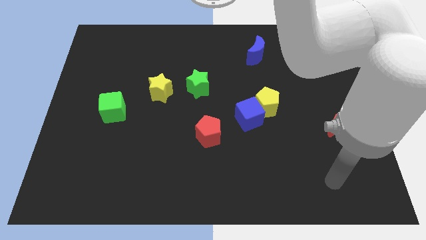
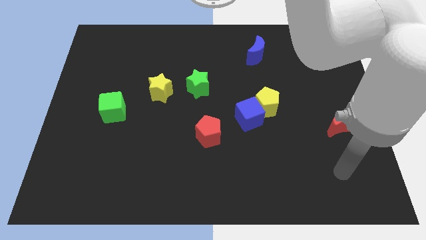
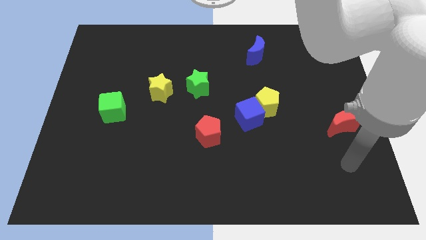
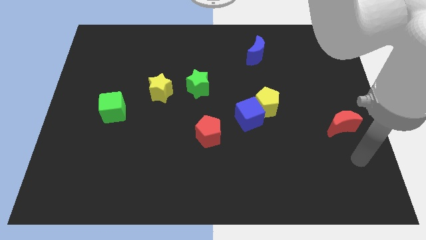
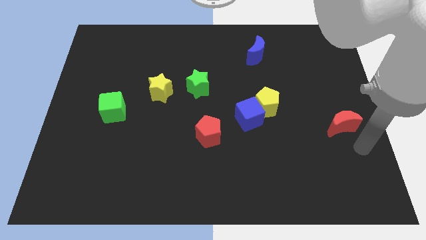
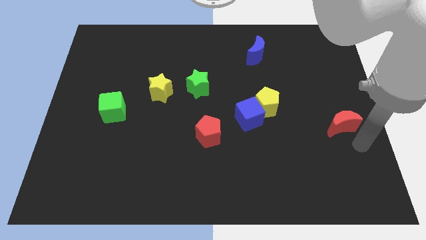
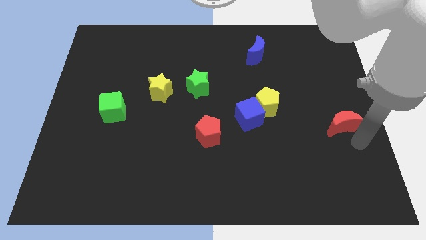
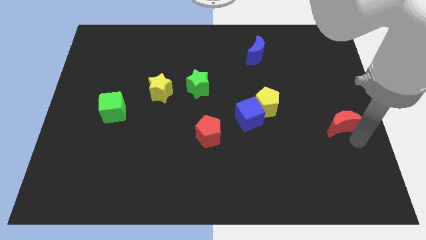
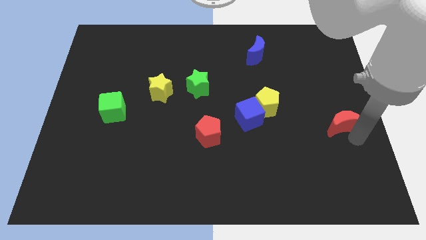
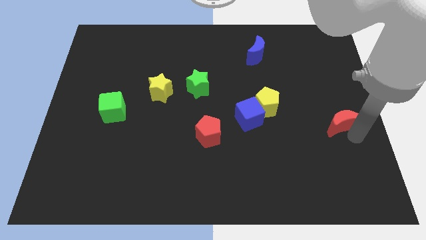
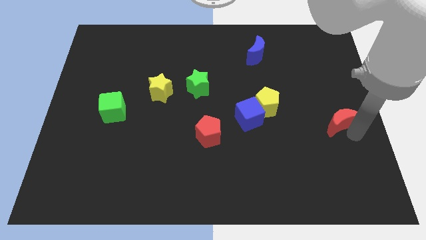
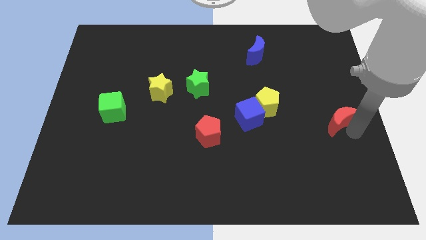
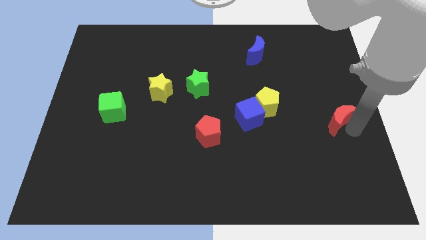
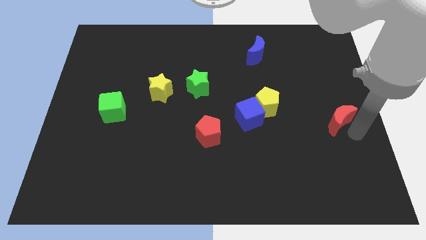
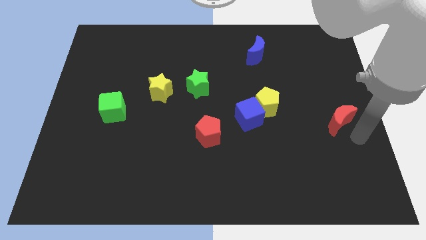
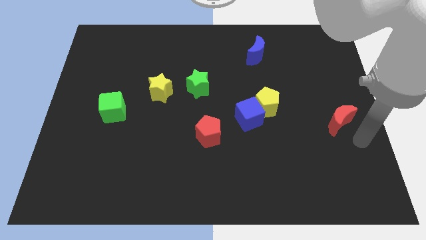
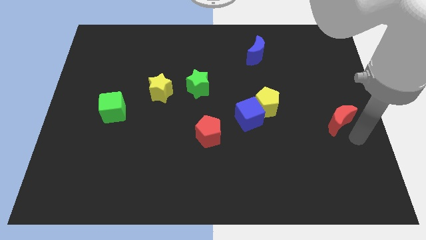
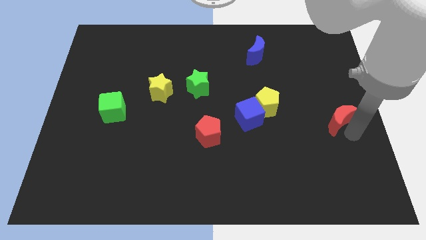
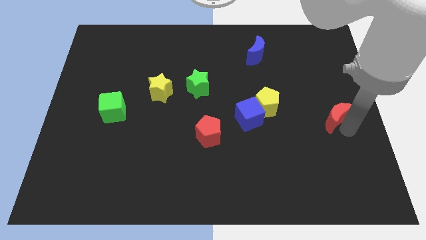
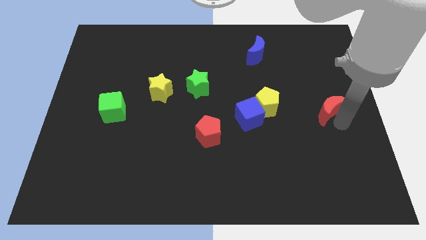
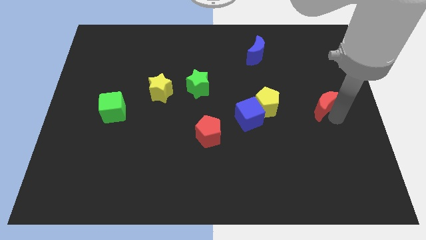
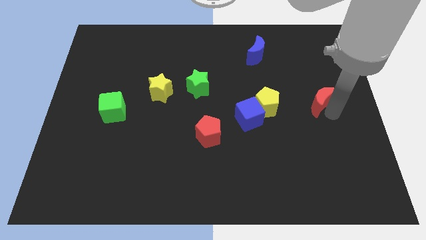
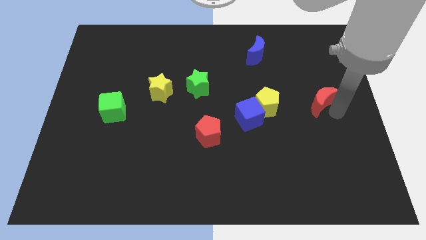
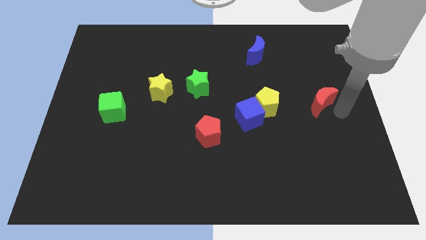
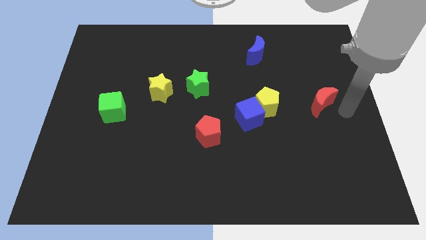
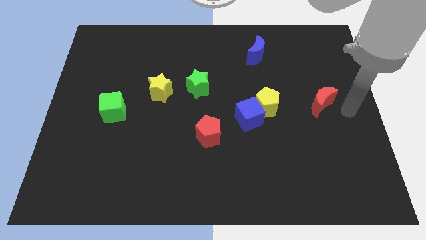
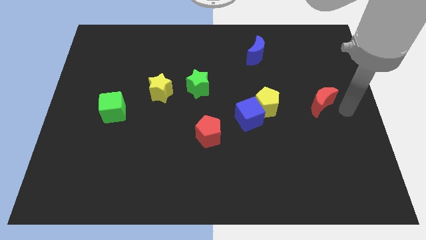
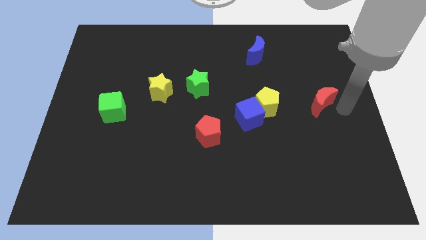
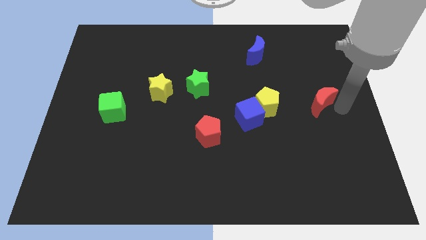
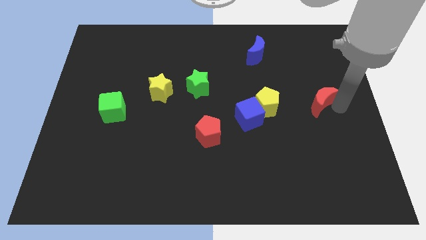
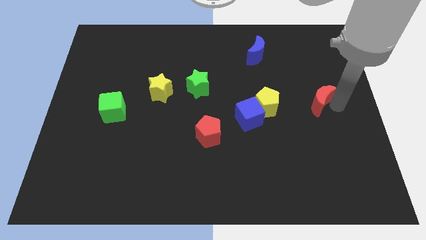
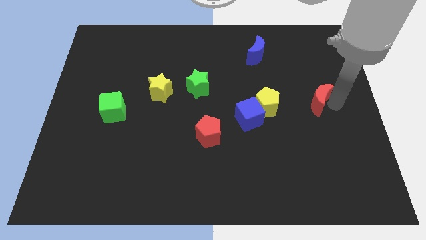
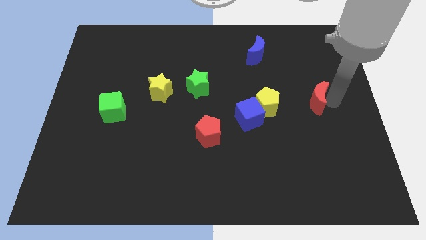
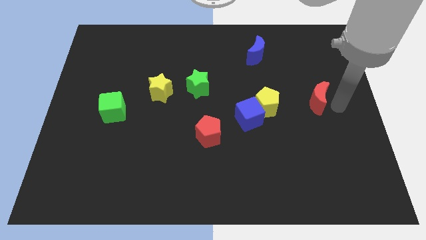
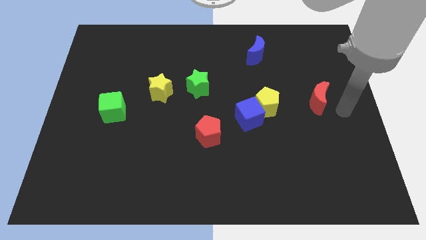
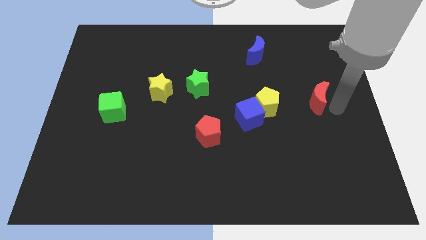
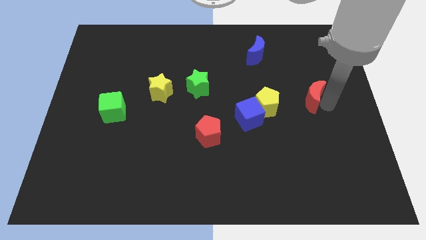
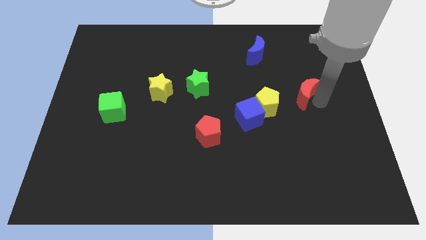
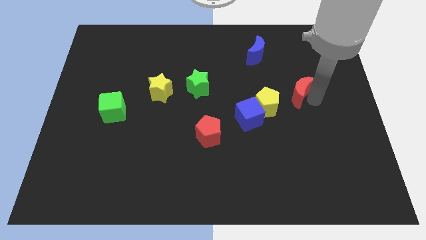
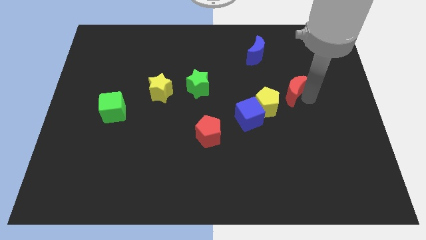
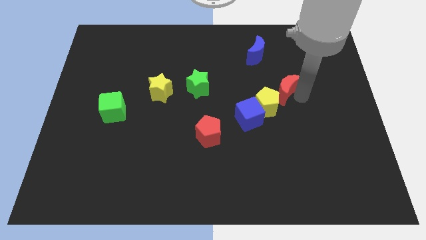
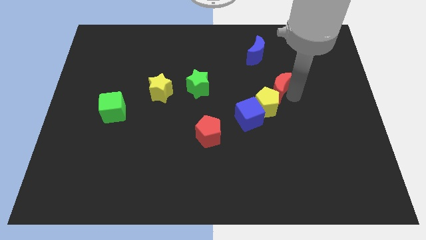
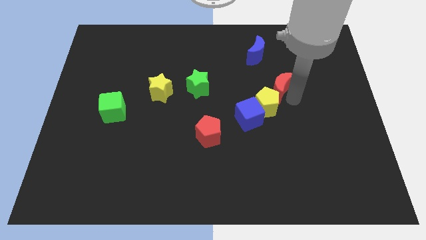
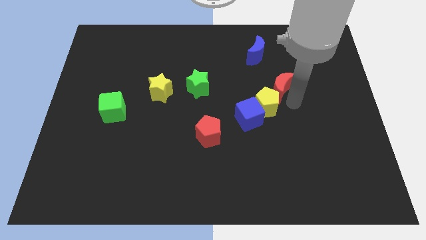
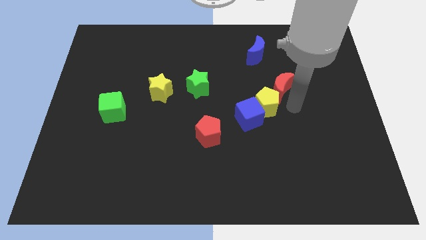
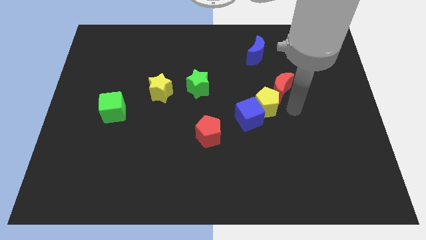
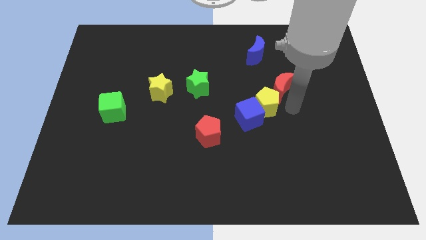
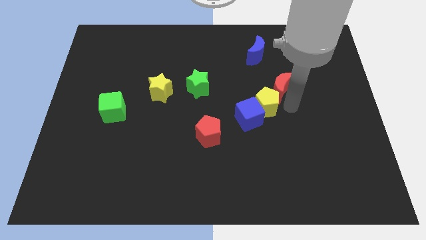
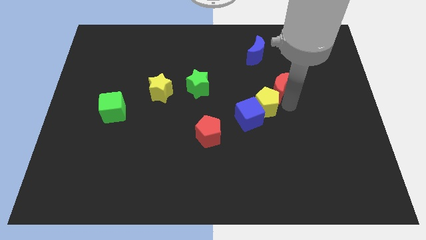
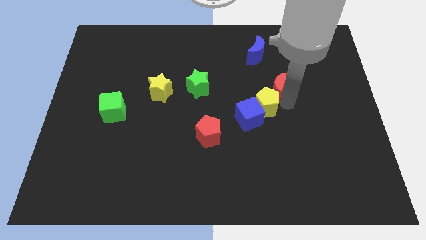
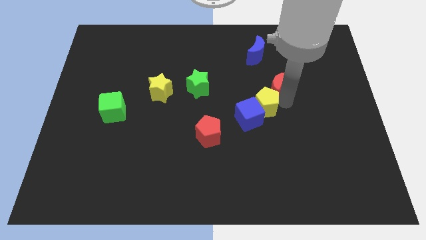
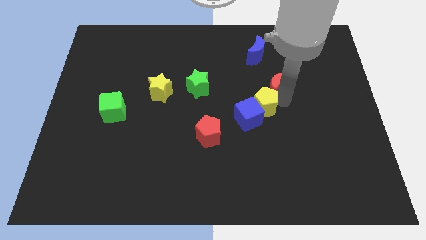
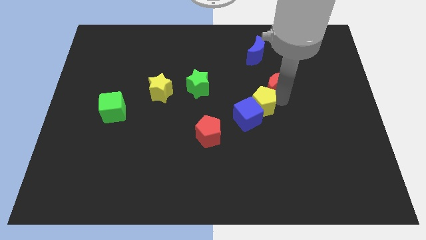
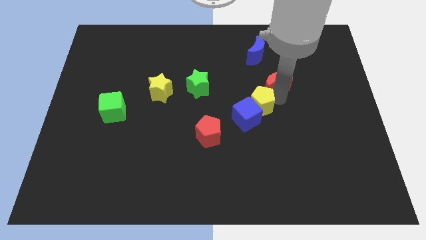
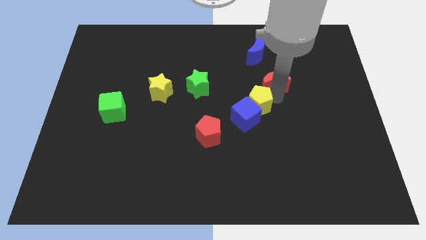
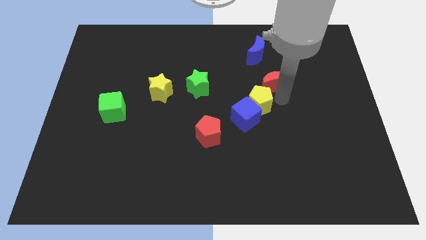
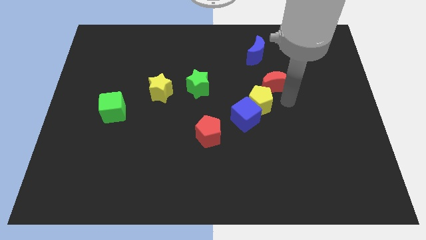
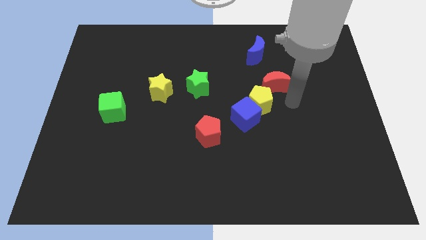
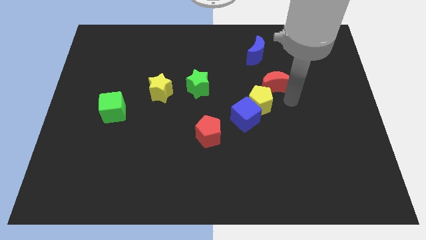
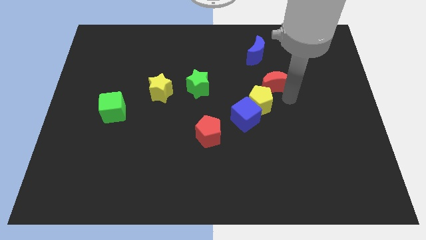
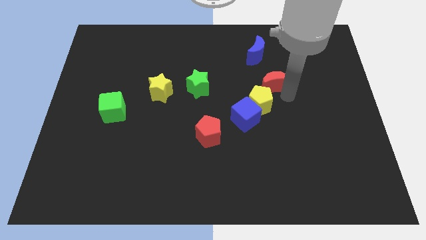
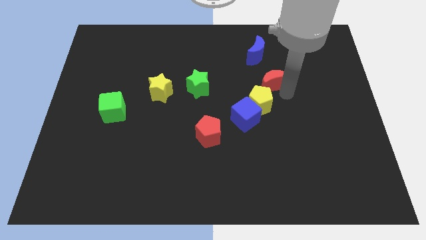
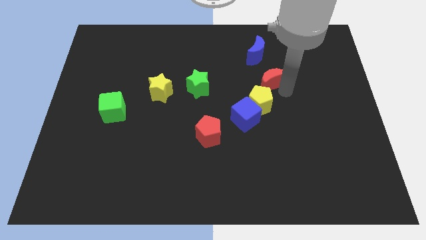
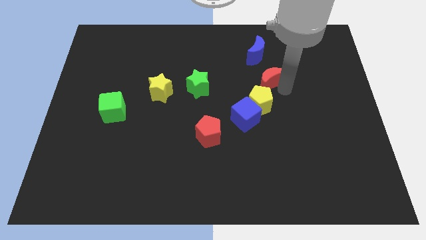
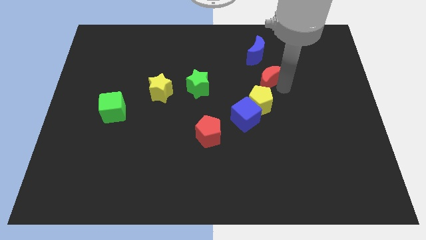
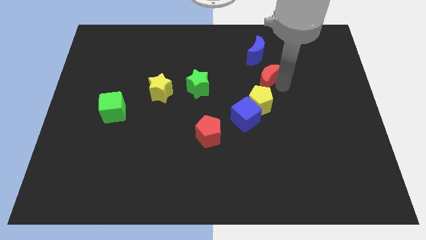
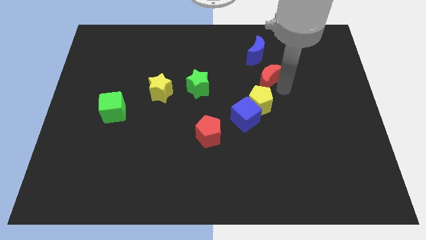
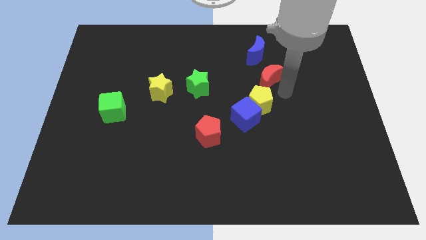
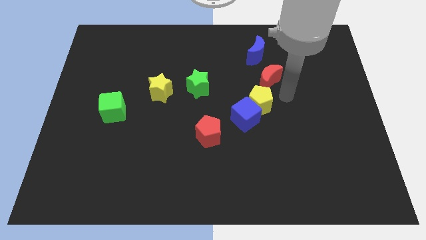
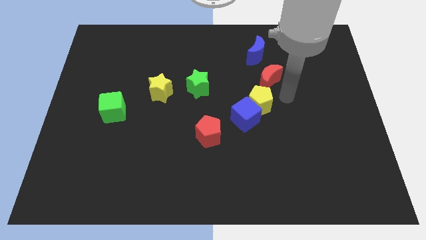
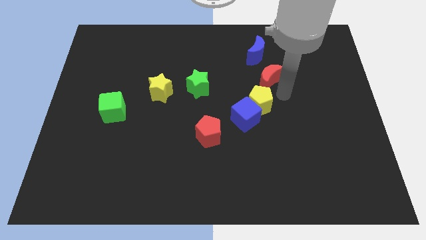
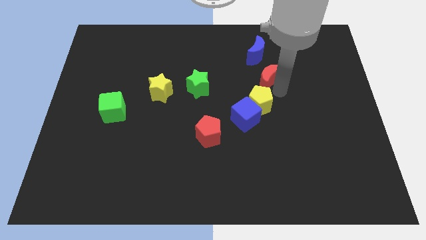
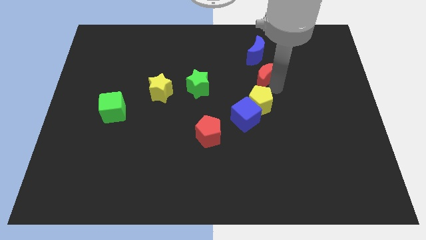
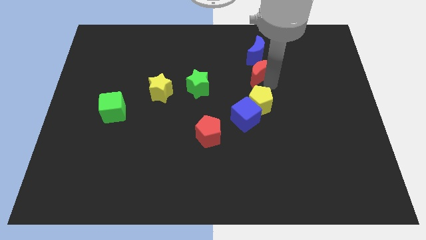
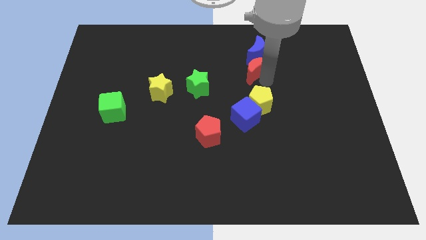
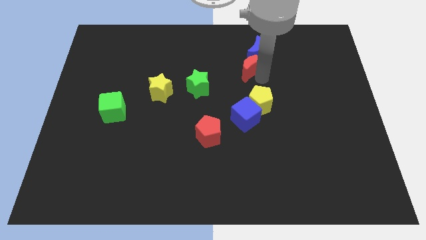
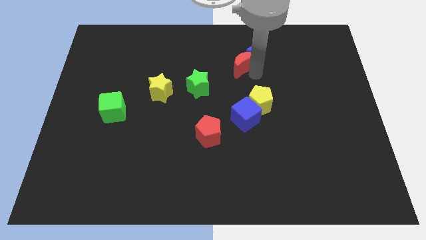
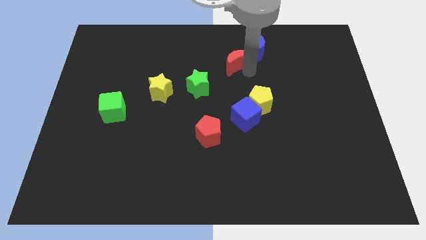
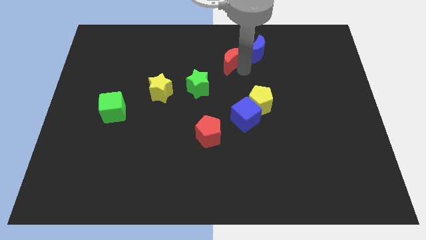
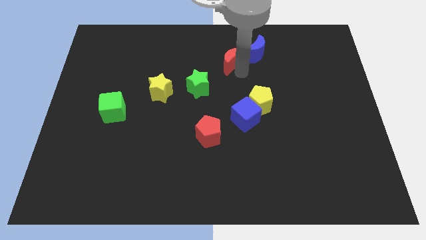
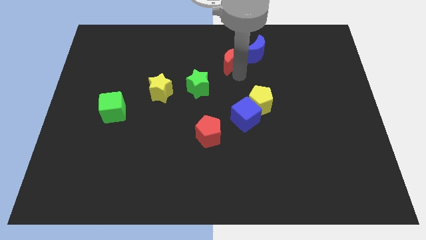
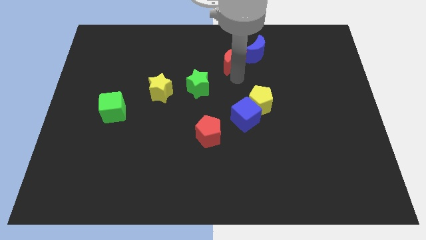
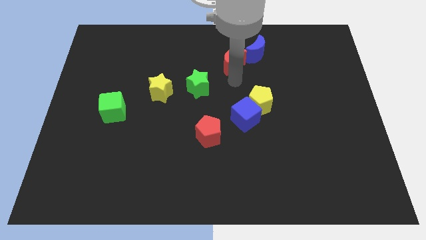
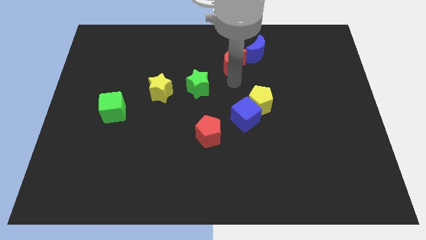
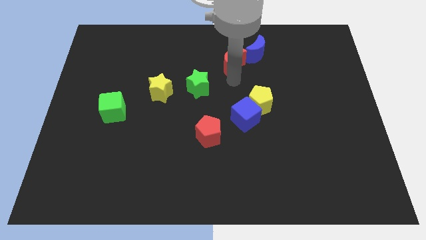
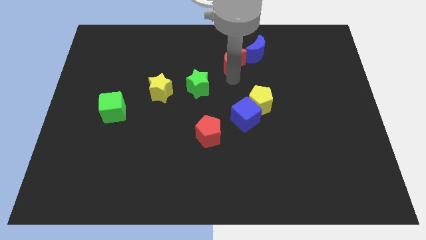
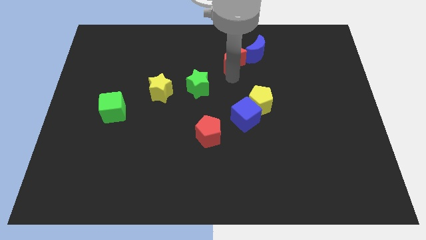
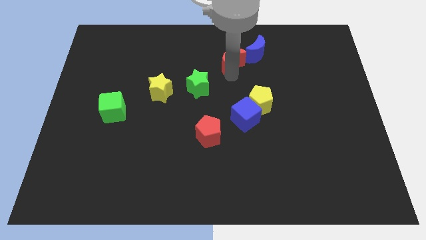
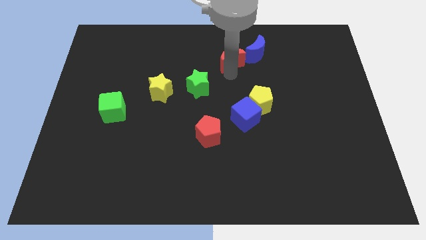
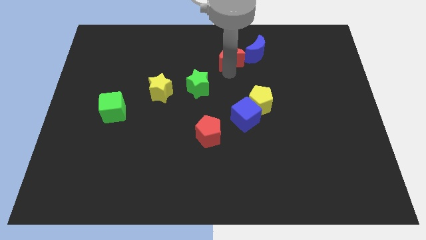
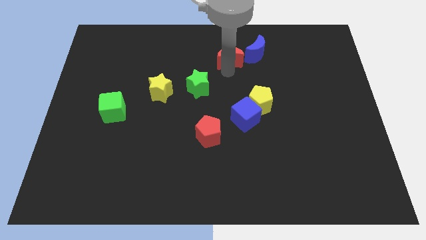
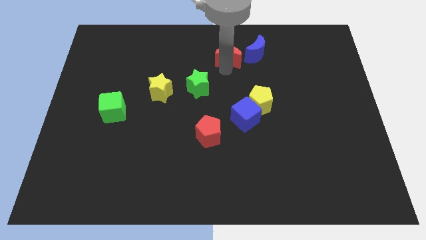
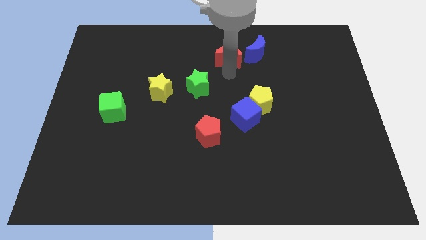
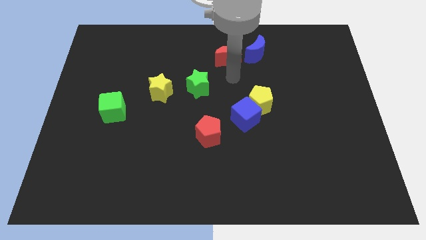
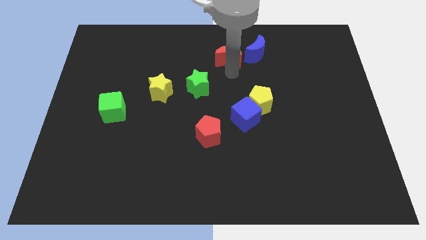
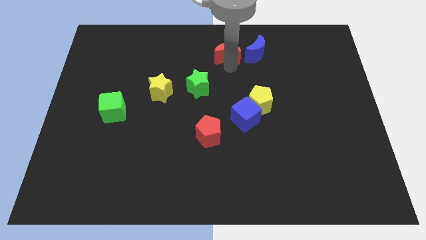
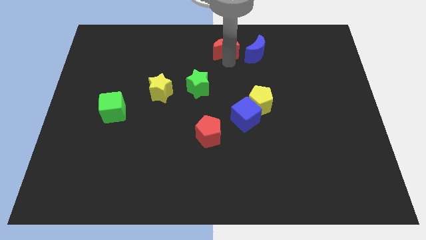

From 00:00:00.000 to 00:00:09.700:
push the red moon to the towards your base
